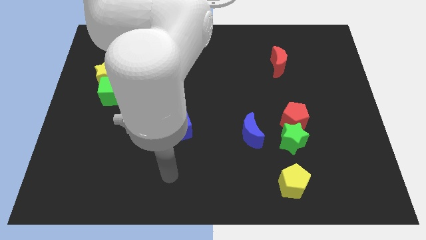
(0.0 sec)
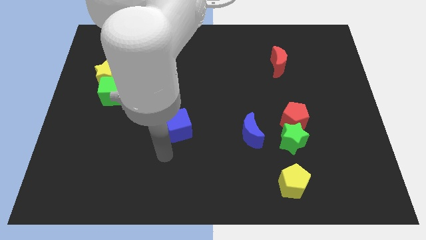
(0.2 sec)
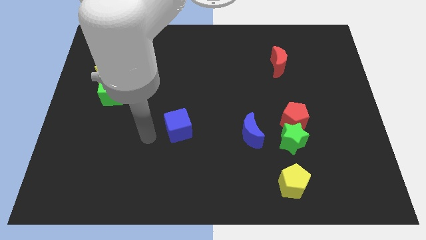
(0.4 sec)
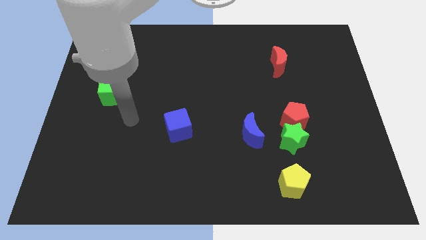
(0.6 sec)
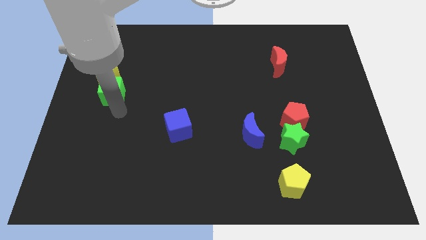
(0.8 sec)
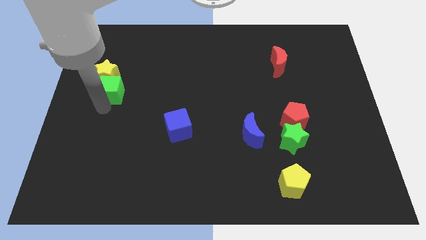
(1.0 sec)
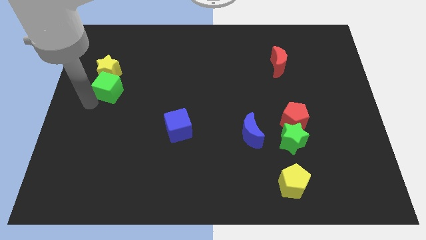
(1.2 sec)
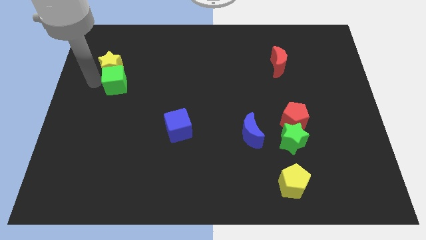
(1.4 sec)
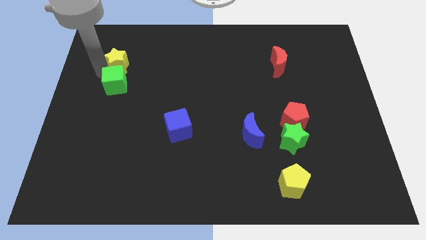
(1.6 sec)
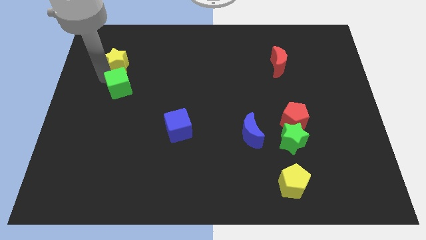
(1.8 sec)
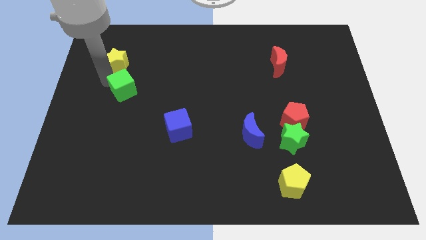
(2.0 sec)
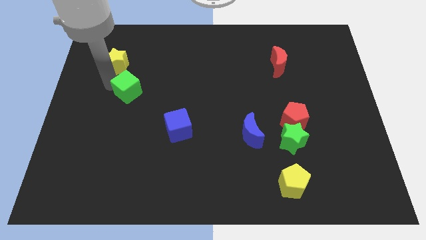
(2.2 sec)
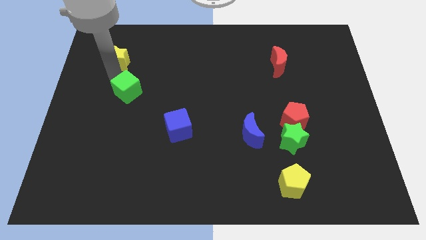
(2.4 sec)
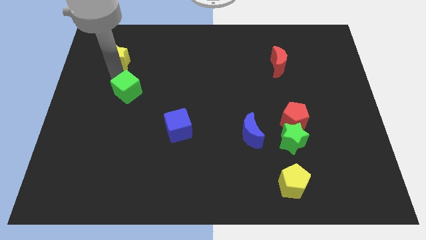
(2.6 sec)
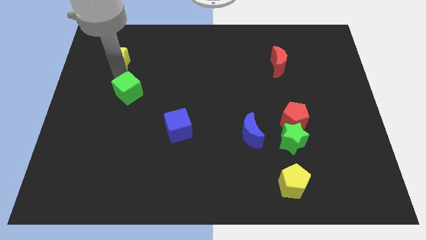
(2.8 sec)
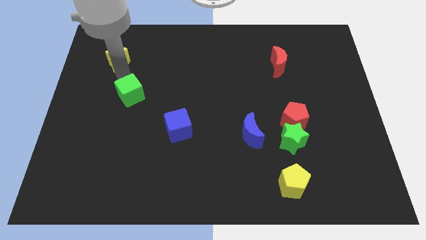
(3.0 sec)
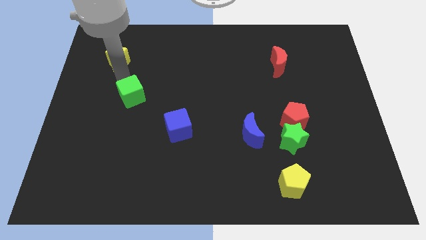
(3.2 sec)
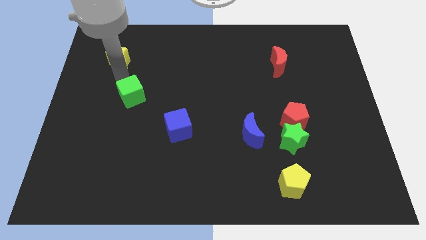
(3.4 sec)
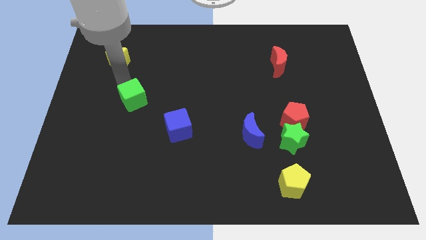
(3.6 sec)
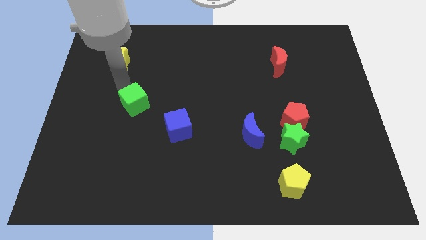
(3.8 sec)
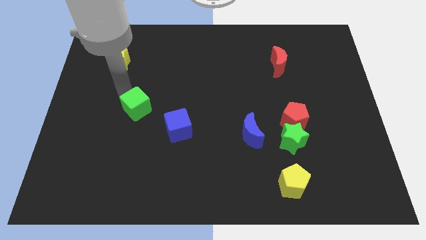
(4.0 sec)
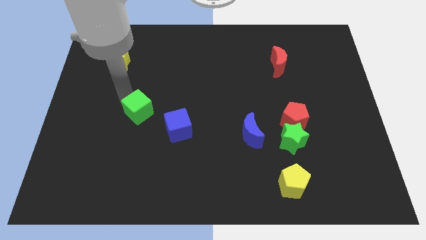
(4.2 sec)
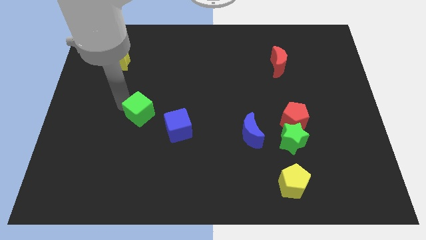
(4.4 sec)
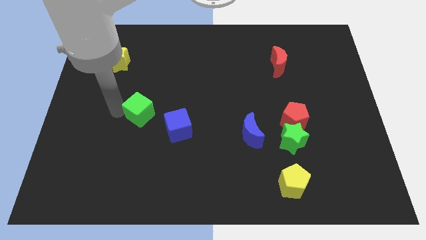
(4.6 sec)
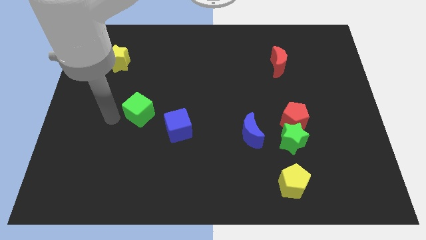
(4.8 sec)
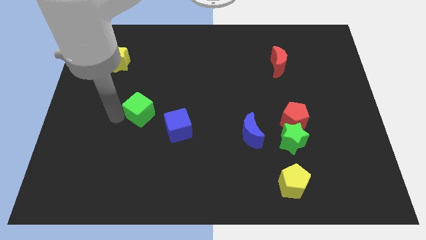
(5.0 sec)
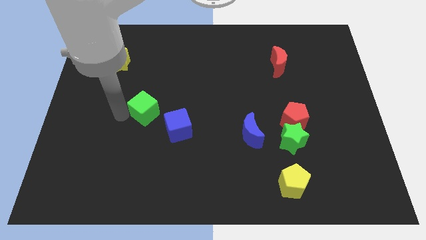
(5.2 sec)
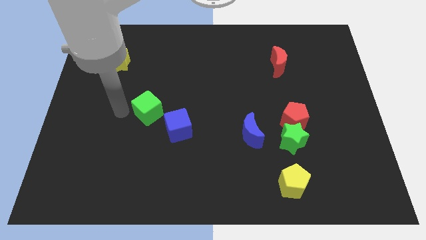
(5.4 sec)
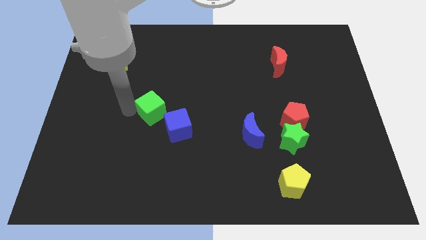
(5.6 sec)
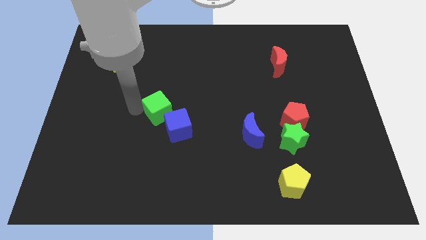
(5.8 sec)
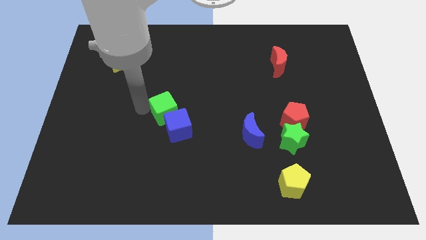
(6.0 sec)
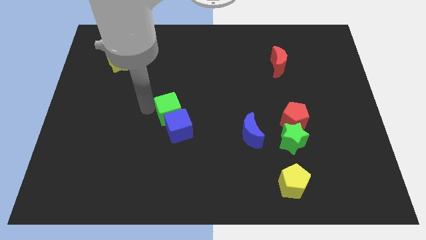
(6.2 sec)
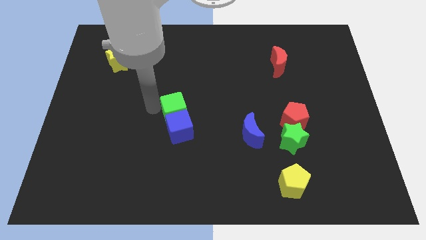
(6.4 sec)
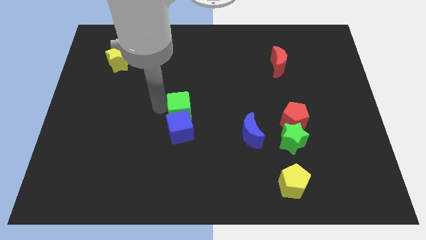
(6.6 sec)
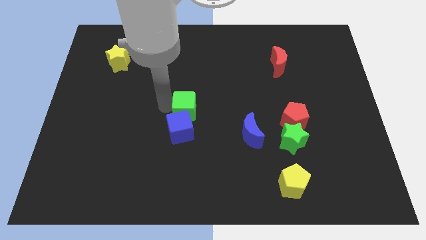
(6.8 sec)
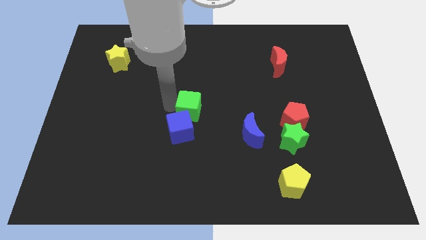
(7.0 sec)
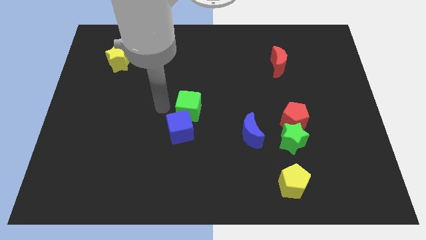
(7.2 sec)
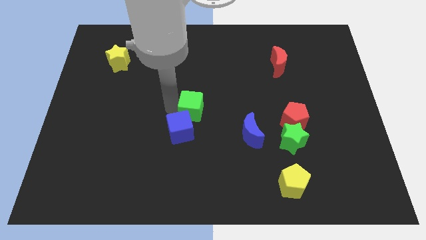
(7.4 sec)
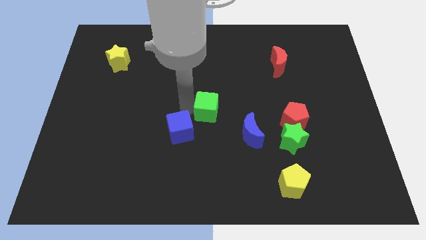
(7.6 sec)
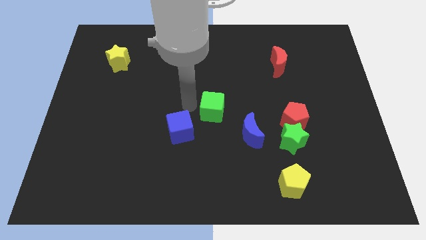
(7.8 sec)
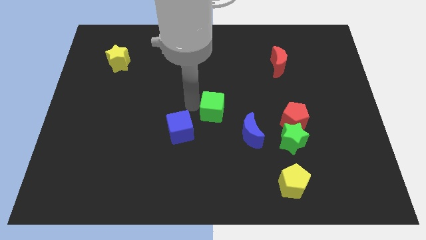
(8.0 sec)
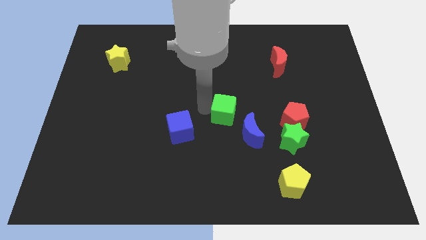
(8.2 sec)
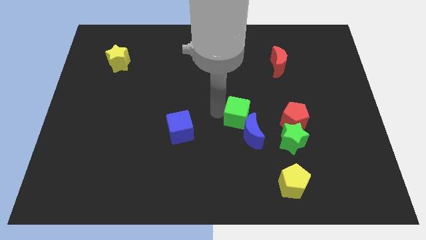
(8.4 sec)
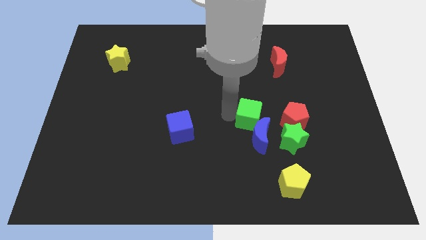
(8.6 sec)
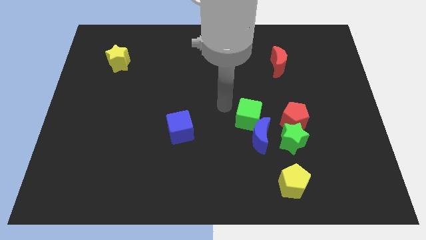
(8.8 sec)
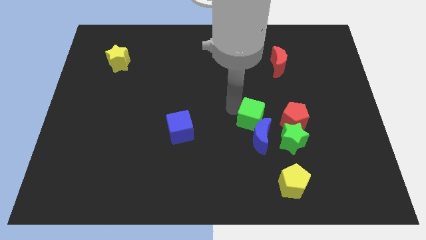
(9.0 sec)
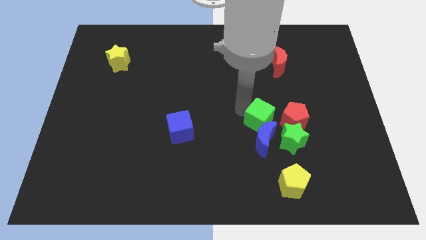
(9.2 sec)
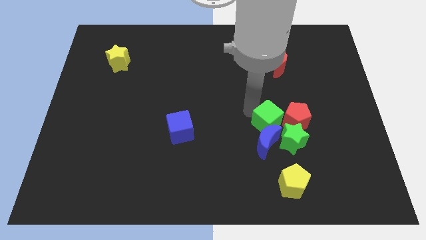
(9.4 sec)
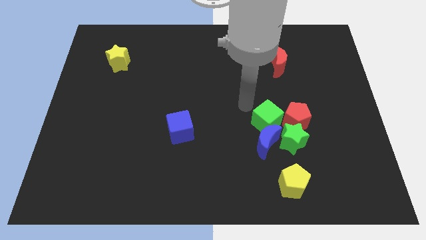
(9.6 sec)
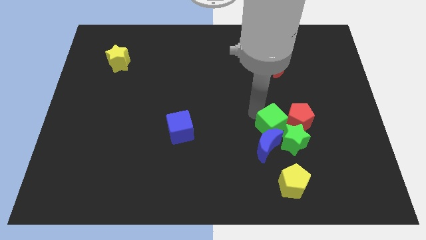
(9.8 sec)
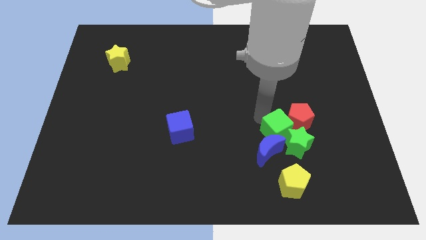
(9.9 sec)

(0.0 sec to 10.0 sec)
push the green cube towards the green star
